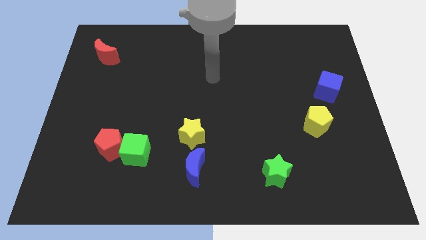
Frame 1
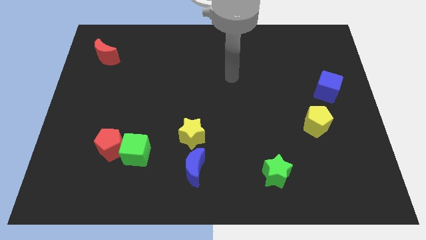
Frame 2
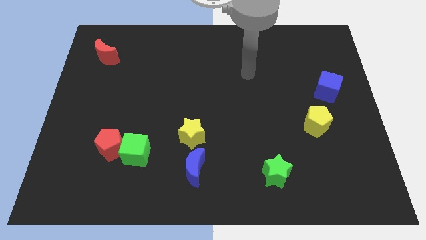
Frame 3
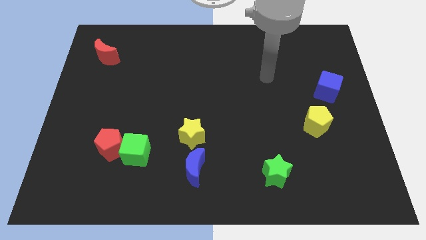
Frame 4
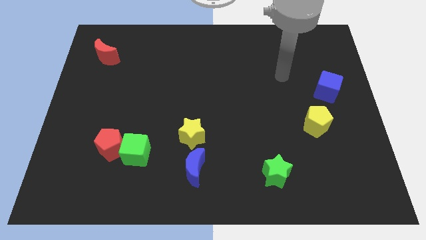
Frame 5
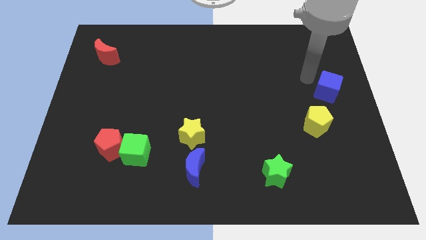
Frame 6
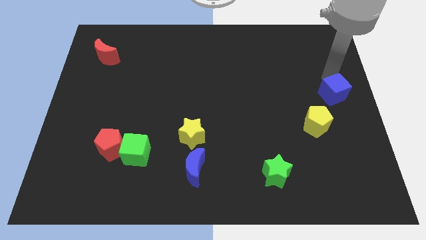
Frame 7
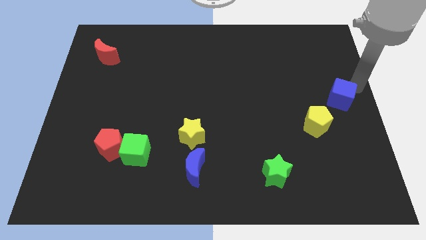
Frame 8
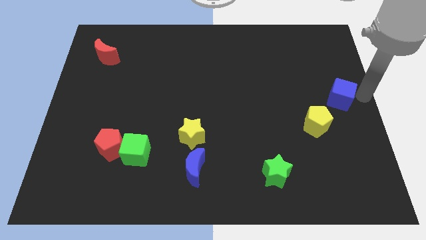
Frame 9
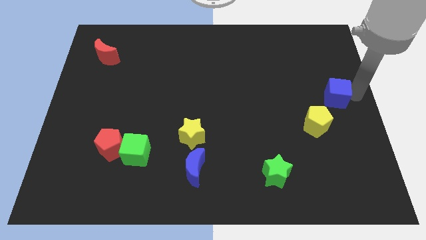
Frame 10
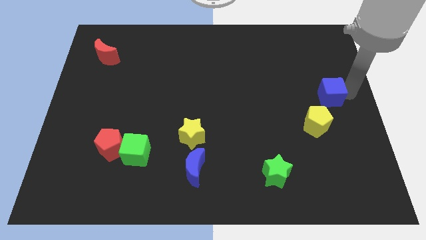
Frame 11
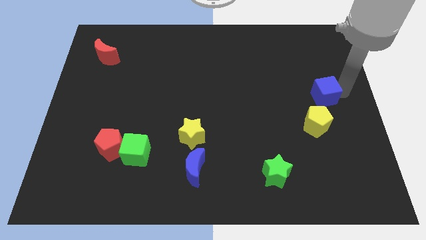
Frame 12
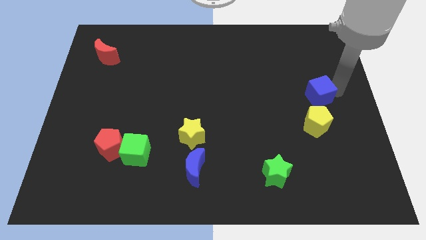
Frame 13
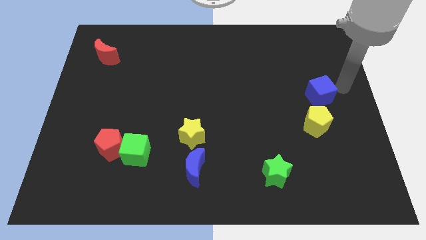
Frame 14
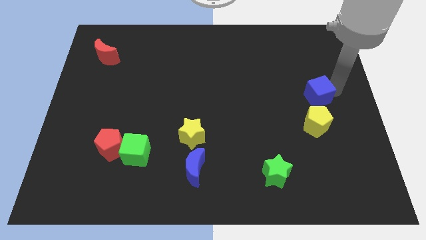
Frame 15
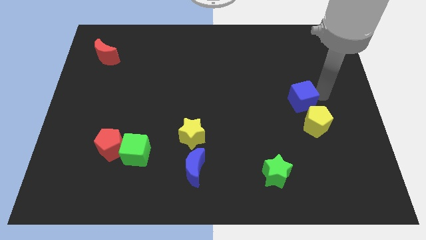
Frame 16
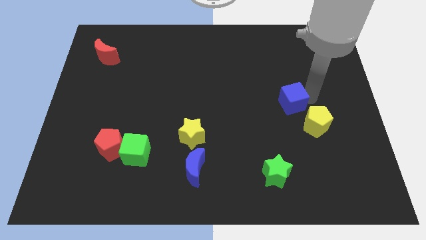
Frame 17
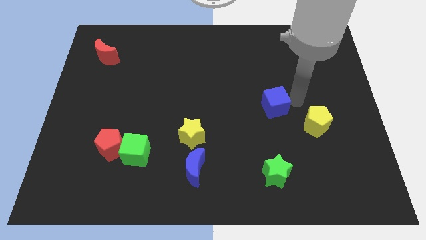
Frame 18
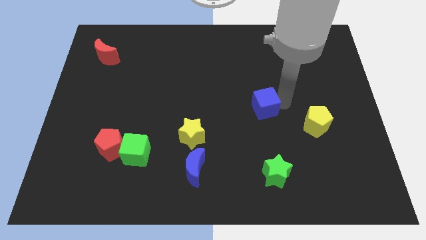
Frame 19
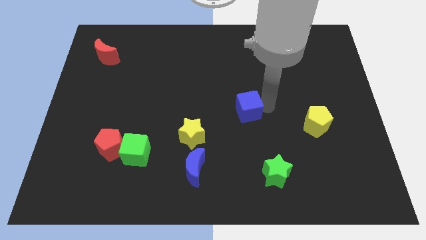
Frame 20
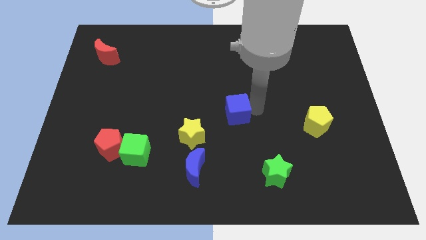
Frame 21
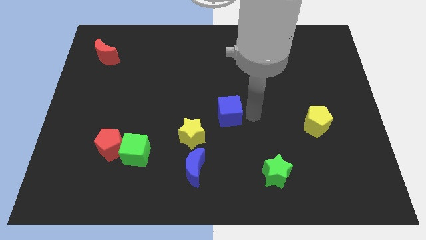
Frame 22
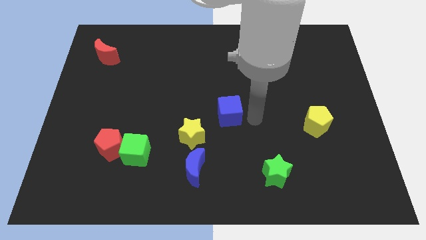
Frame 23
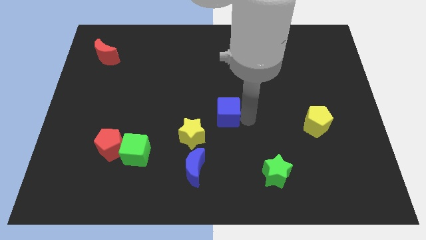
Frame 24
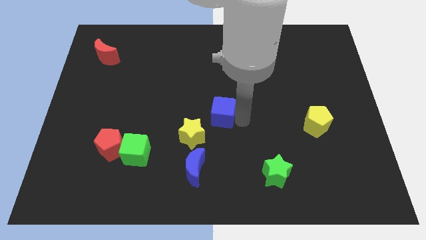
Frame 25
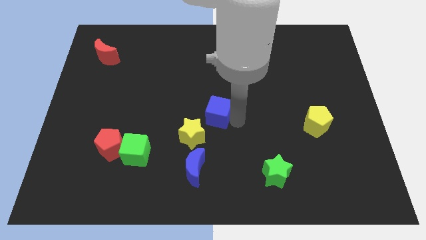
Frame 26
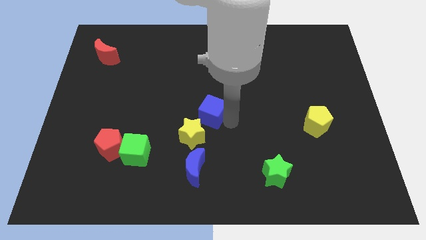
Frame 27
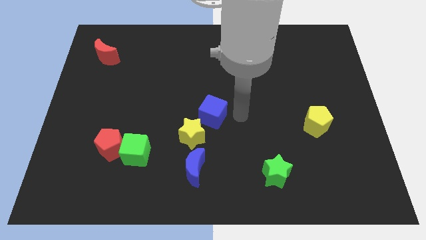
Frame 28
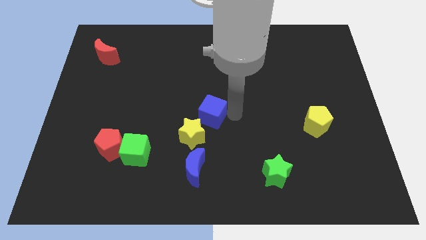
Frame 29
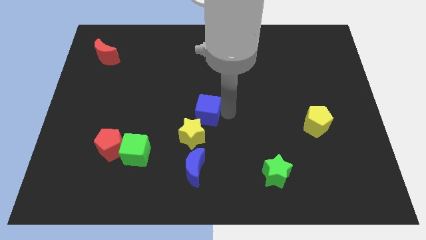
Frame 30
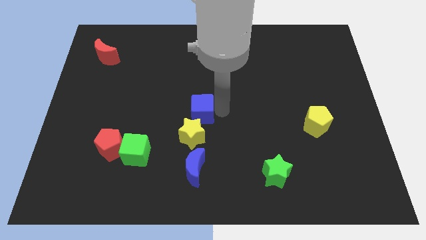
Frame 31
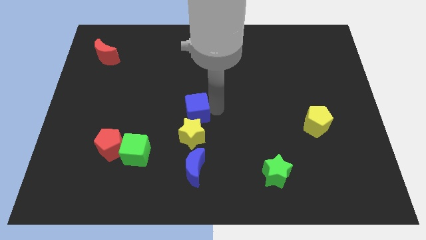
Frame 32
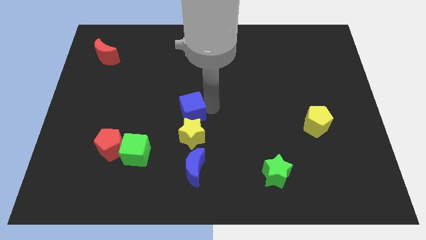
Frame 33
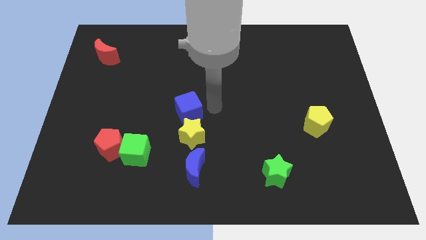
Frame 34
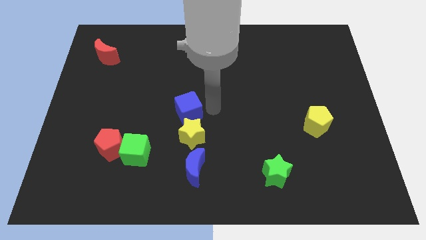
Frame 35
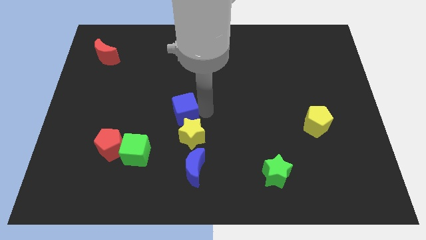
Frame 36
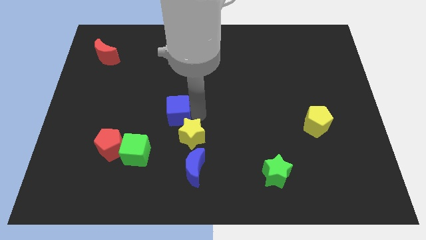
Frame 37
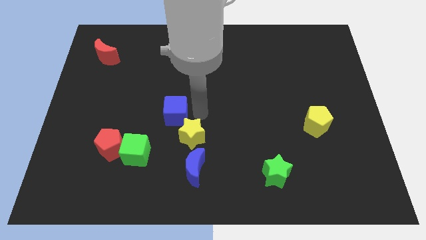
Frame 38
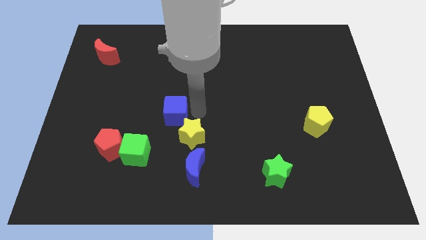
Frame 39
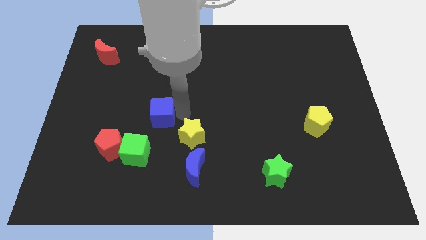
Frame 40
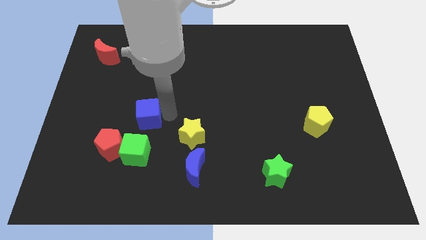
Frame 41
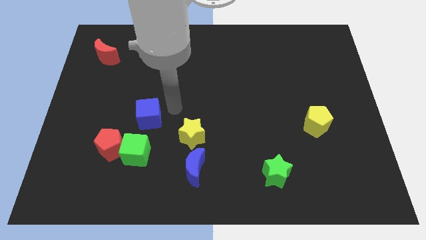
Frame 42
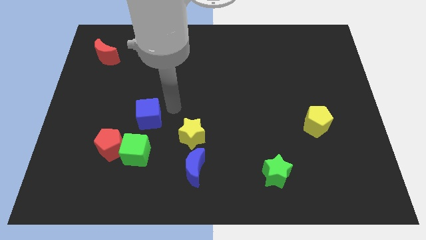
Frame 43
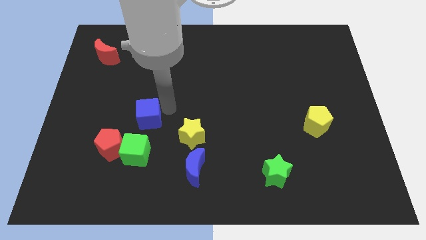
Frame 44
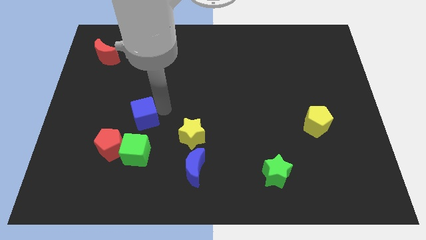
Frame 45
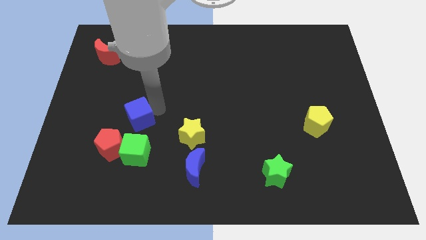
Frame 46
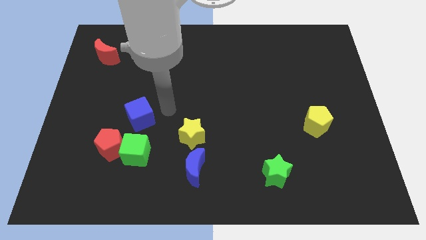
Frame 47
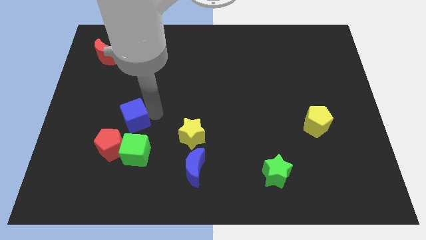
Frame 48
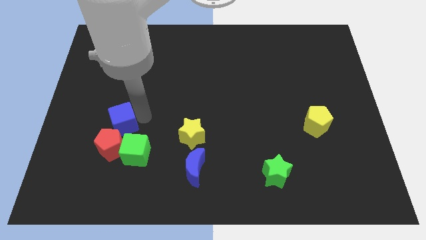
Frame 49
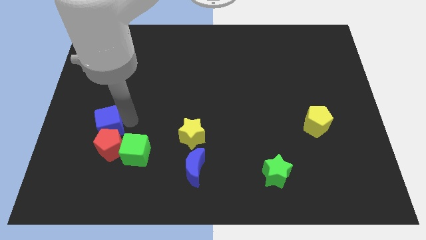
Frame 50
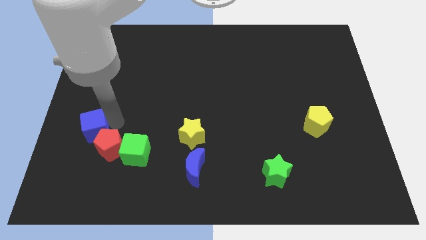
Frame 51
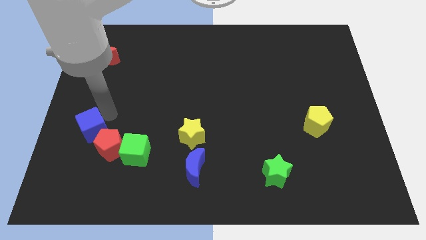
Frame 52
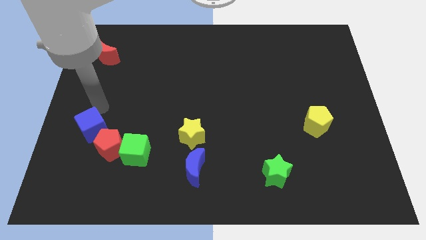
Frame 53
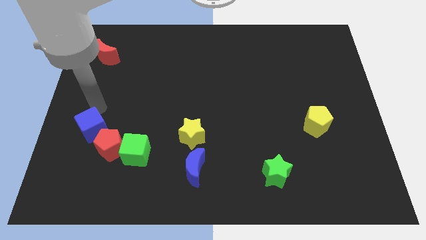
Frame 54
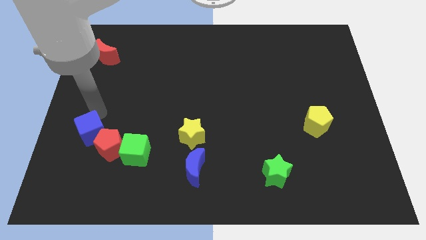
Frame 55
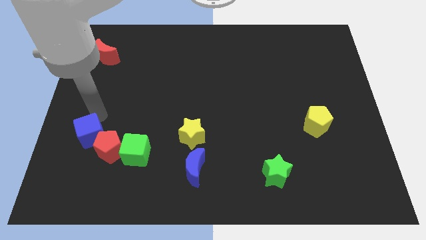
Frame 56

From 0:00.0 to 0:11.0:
slide the blue cube to the left of the green cube

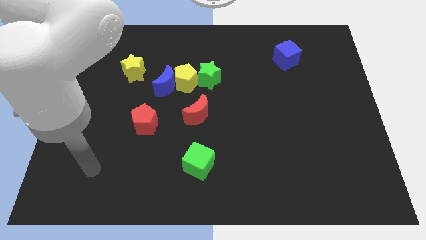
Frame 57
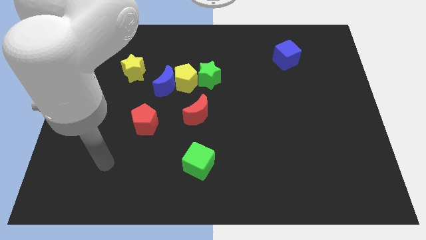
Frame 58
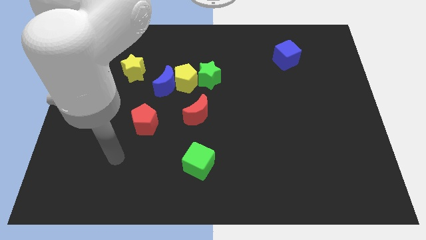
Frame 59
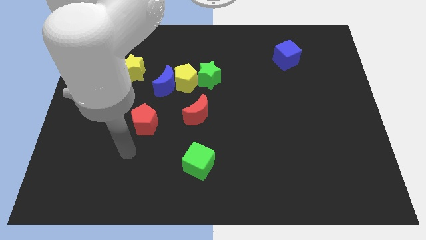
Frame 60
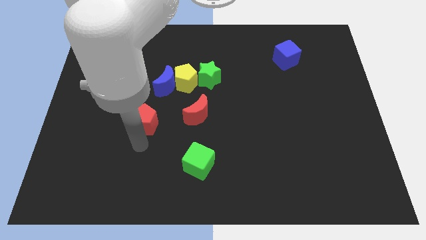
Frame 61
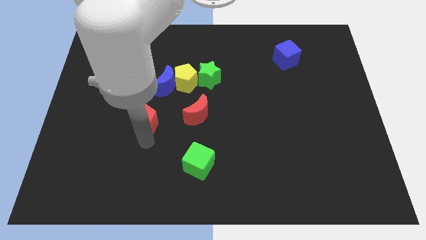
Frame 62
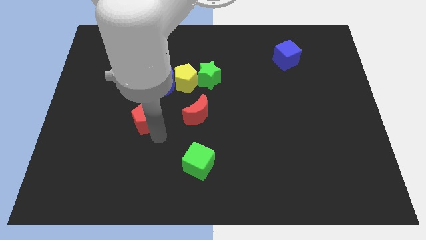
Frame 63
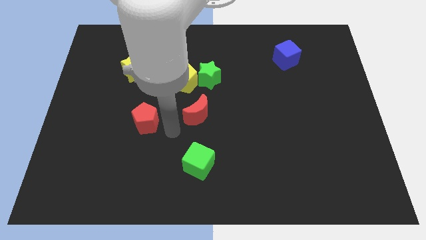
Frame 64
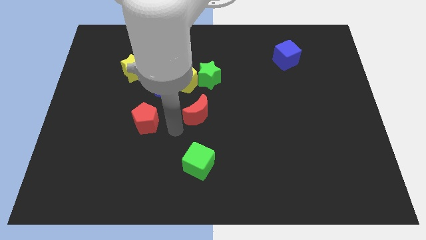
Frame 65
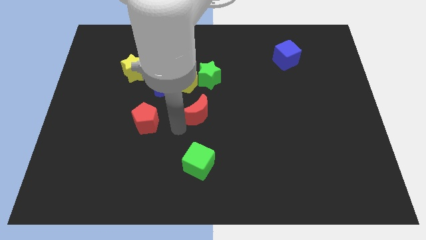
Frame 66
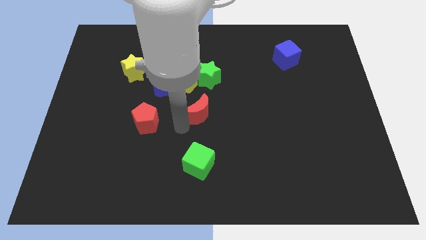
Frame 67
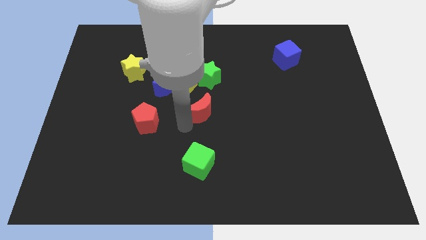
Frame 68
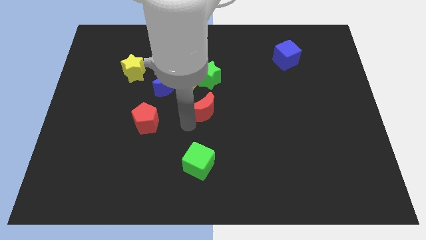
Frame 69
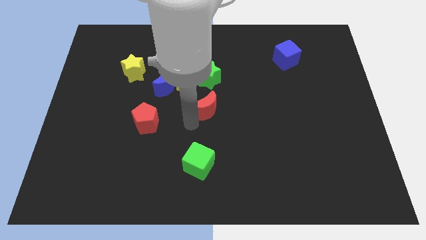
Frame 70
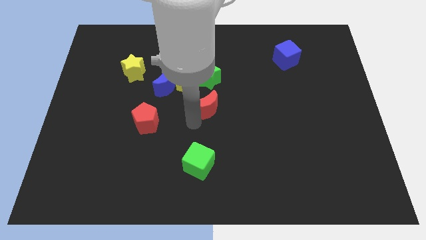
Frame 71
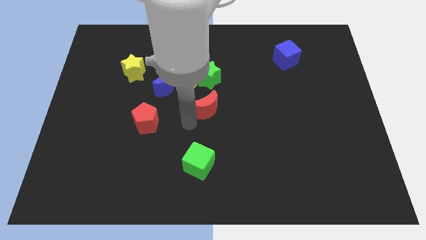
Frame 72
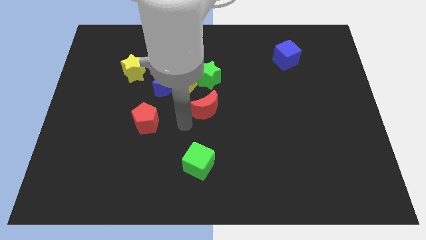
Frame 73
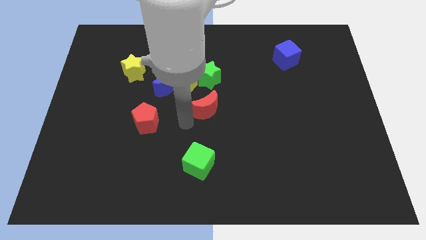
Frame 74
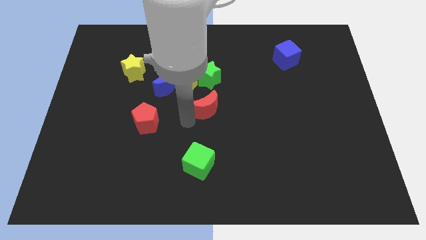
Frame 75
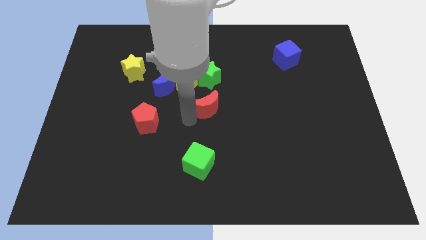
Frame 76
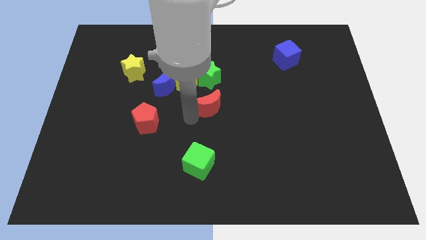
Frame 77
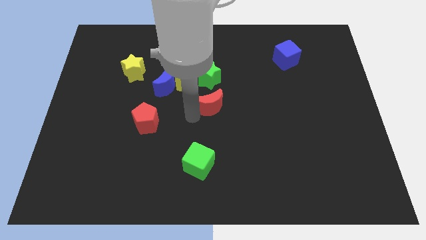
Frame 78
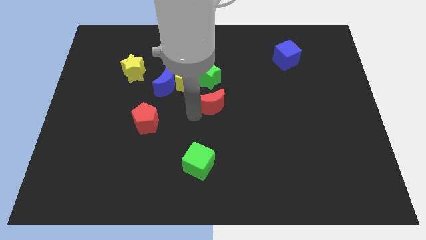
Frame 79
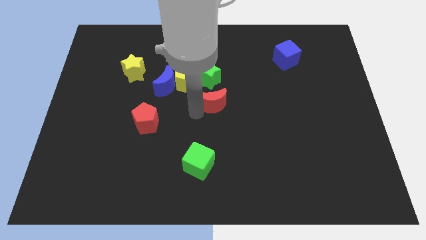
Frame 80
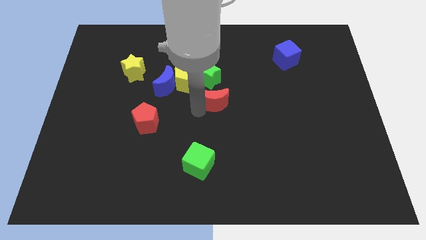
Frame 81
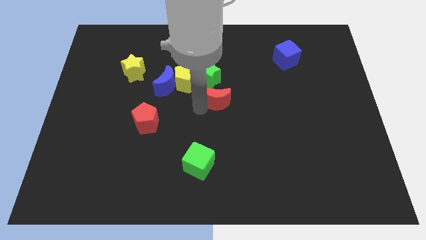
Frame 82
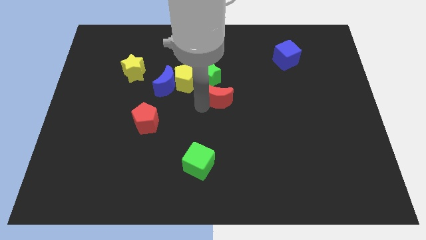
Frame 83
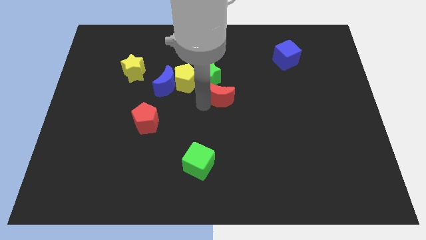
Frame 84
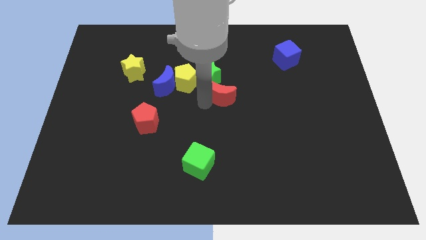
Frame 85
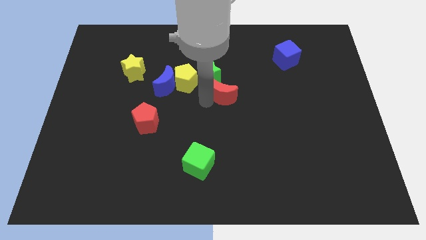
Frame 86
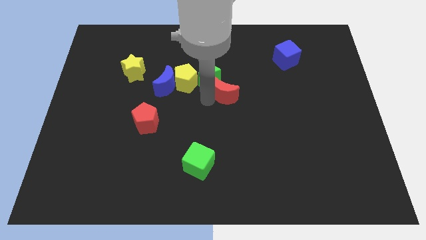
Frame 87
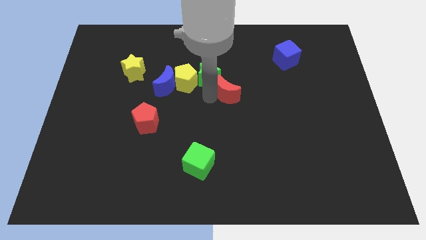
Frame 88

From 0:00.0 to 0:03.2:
put the red moon to the right of the green star
